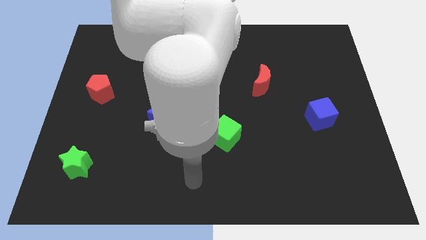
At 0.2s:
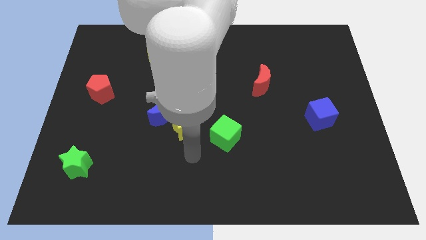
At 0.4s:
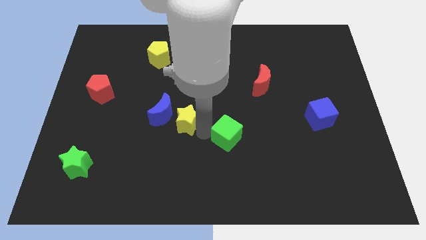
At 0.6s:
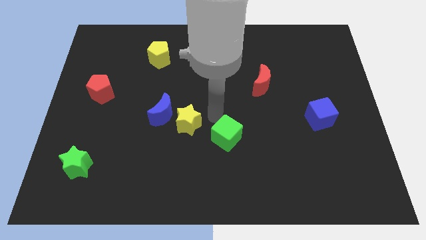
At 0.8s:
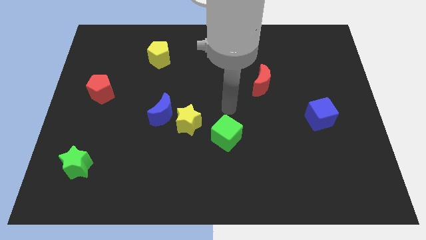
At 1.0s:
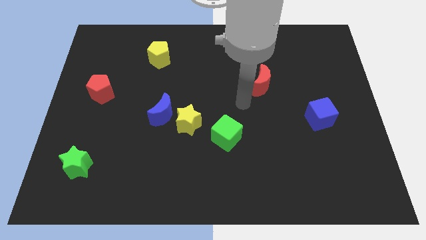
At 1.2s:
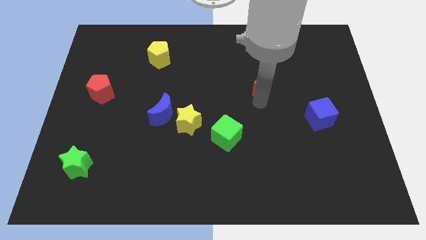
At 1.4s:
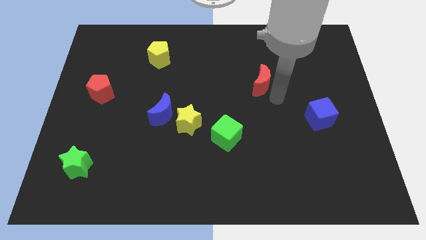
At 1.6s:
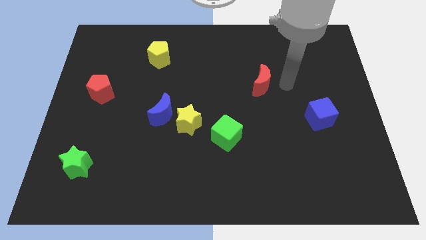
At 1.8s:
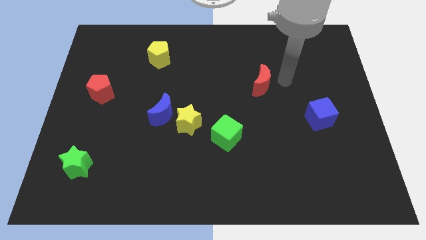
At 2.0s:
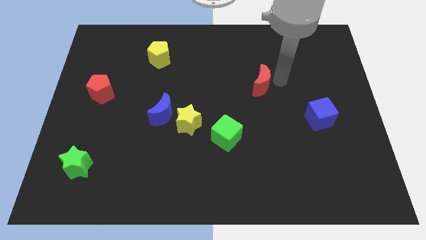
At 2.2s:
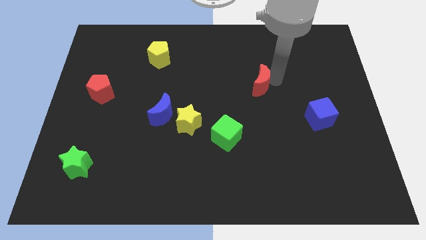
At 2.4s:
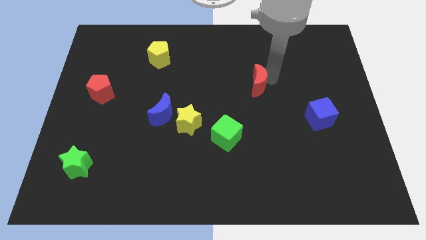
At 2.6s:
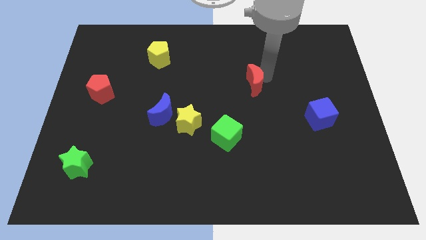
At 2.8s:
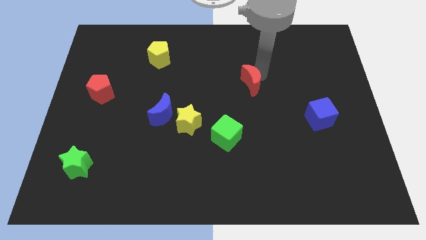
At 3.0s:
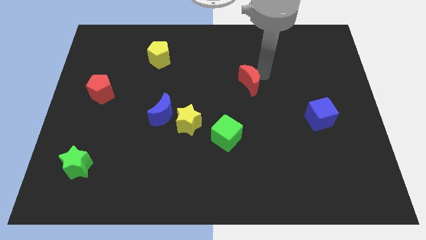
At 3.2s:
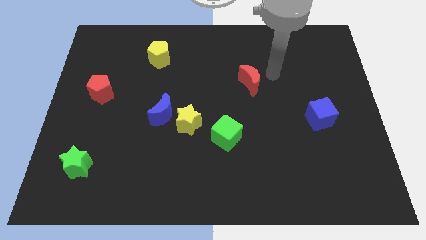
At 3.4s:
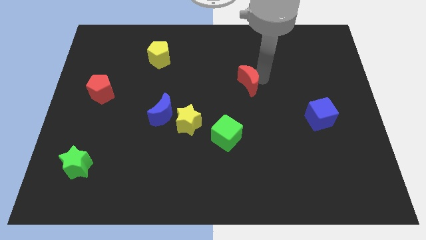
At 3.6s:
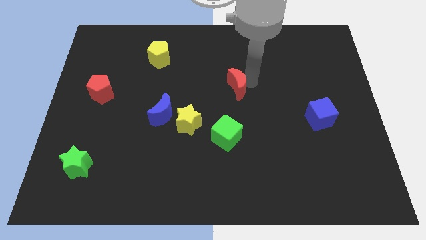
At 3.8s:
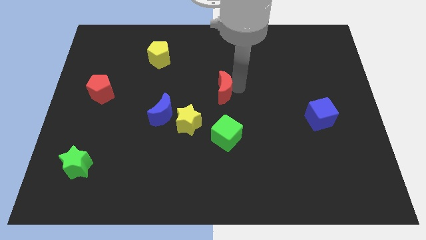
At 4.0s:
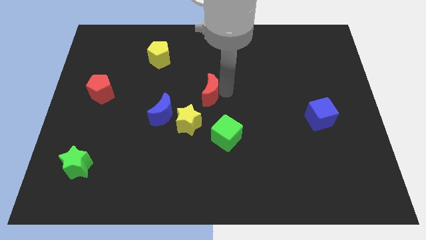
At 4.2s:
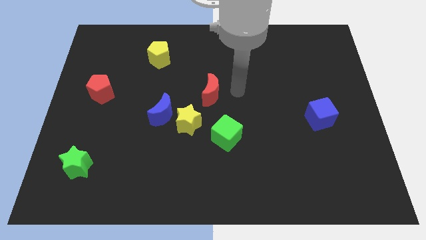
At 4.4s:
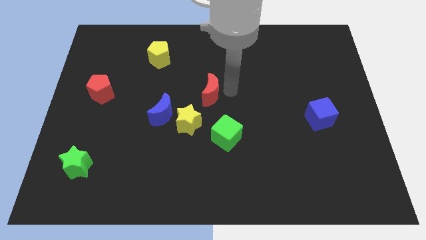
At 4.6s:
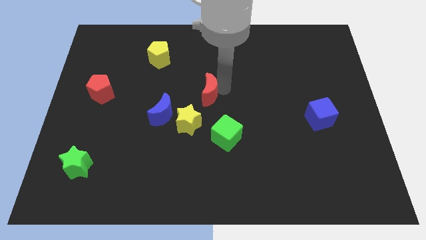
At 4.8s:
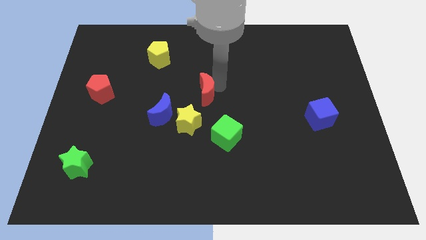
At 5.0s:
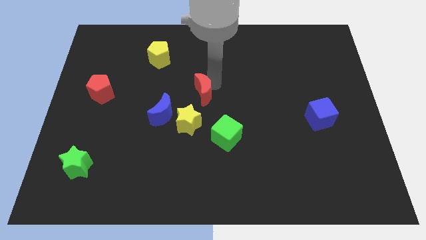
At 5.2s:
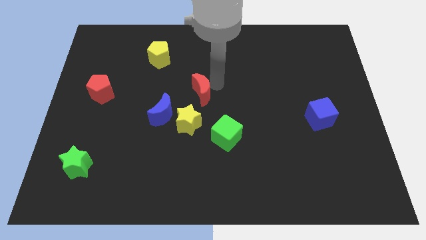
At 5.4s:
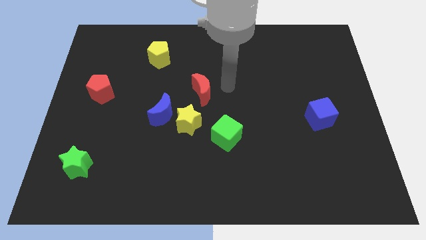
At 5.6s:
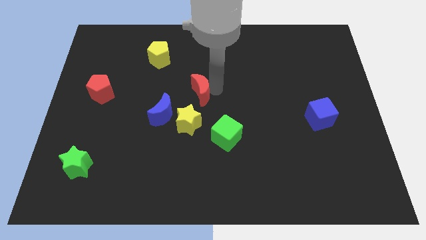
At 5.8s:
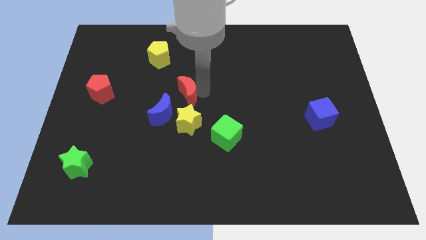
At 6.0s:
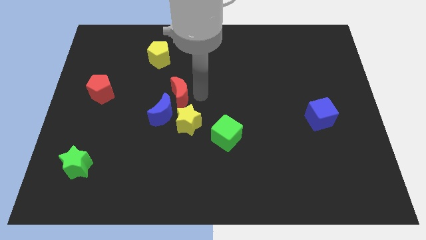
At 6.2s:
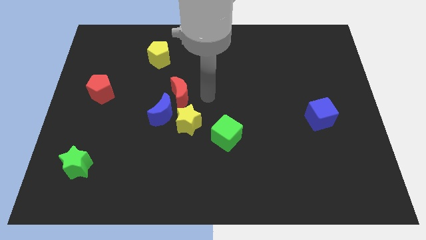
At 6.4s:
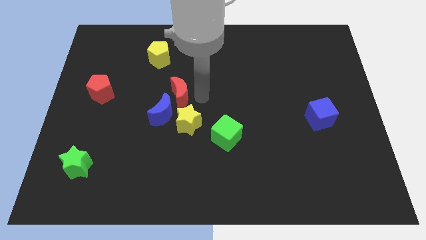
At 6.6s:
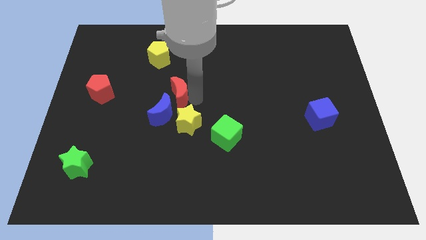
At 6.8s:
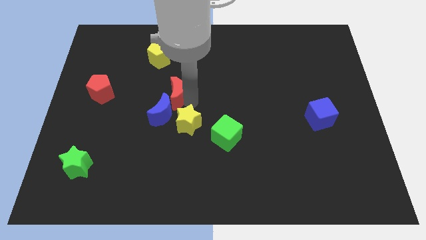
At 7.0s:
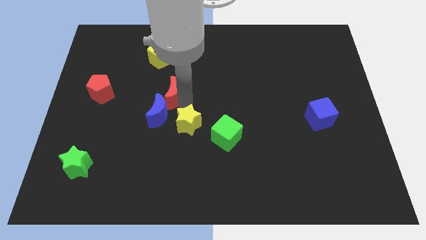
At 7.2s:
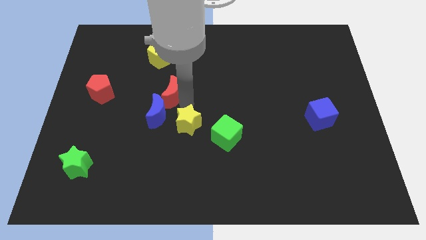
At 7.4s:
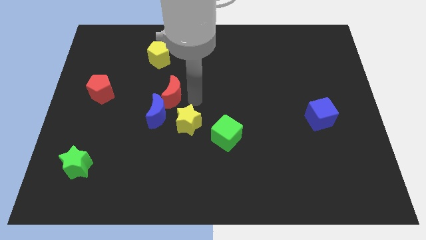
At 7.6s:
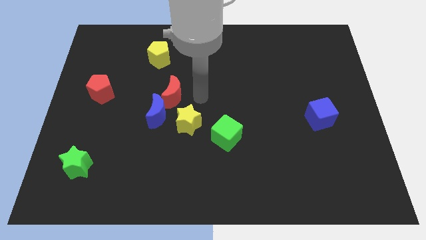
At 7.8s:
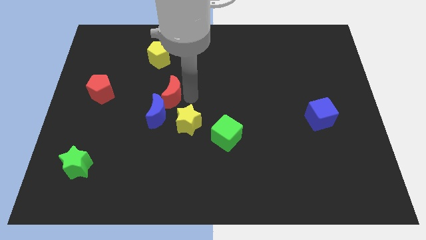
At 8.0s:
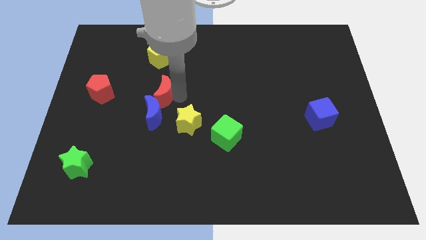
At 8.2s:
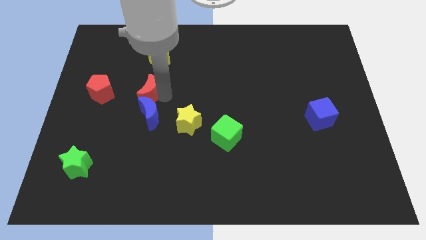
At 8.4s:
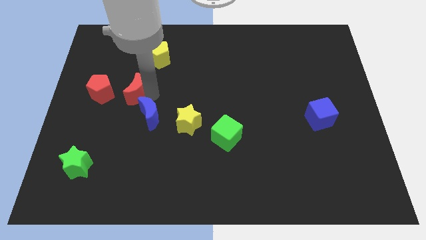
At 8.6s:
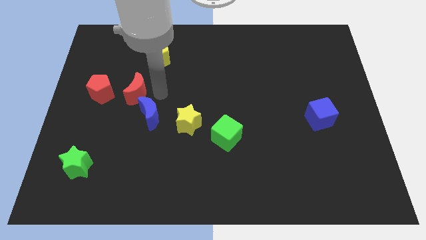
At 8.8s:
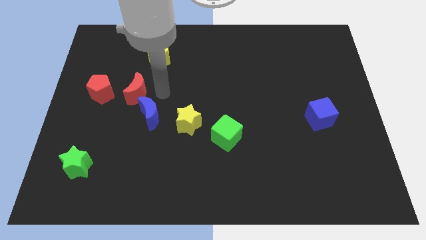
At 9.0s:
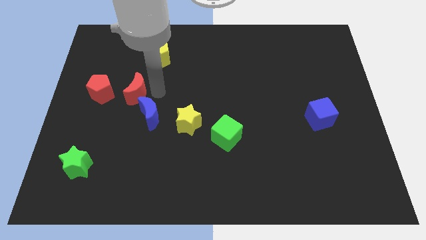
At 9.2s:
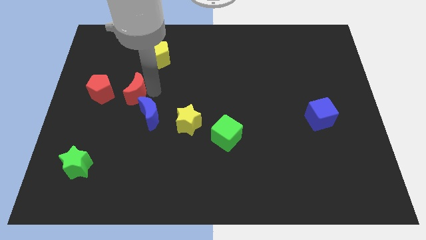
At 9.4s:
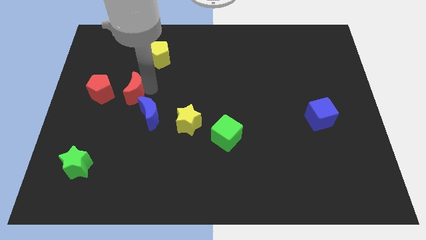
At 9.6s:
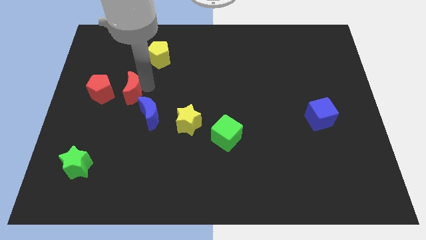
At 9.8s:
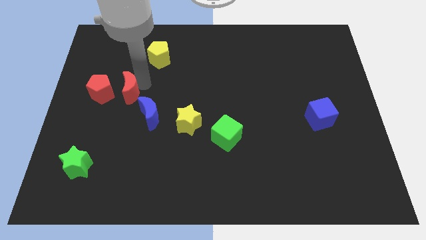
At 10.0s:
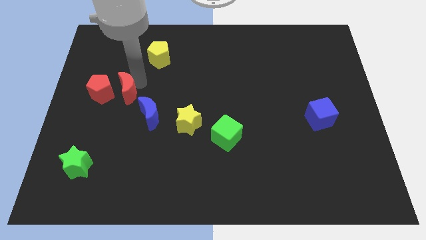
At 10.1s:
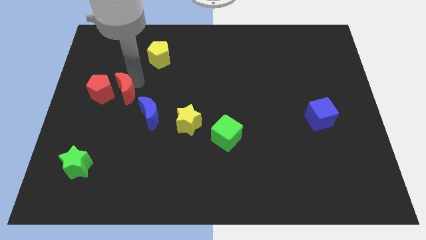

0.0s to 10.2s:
slide the red moon towards the red pentagon

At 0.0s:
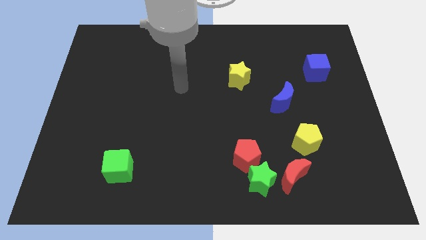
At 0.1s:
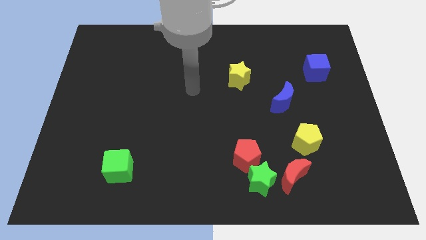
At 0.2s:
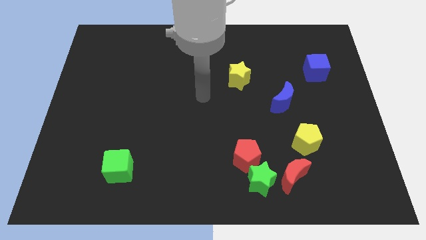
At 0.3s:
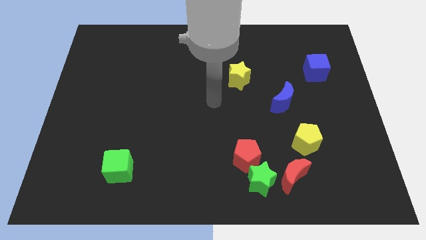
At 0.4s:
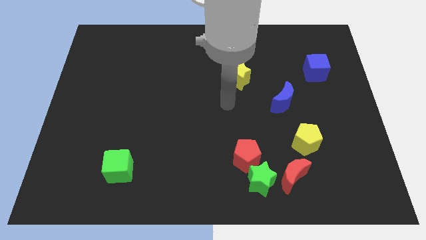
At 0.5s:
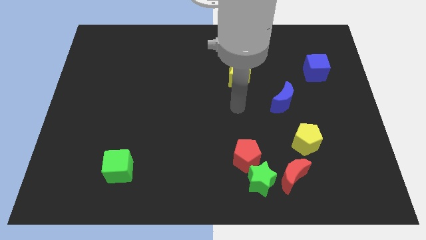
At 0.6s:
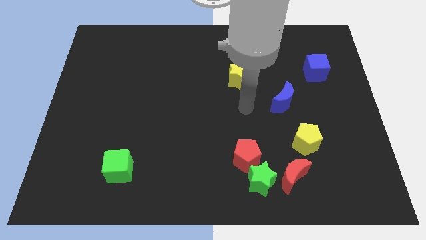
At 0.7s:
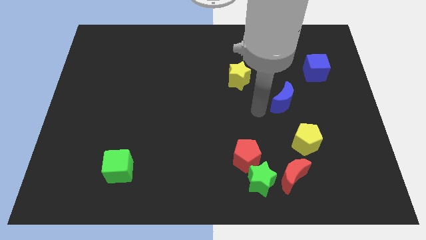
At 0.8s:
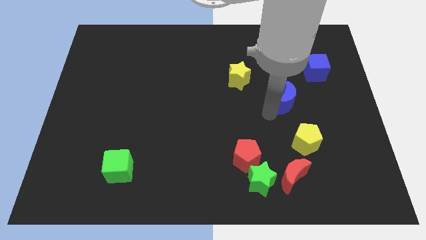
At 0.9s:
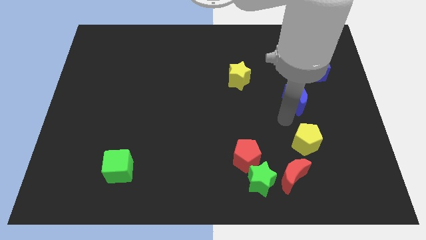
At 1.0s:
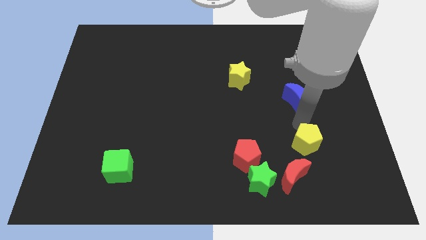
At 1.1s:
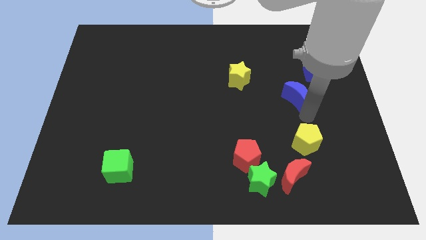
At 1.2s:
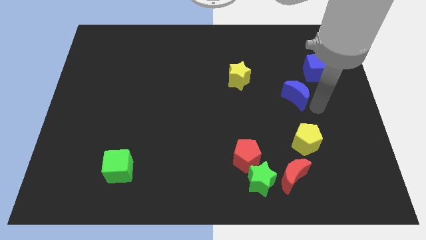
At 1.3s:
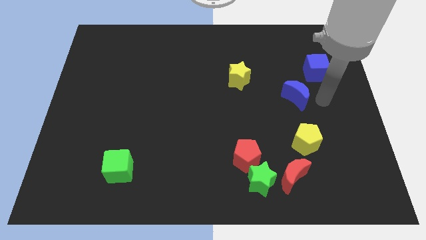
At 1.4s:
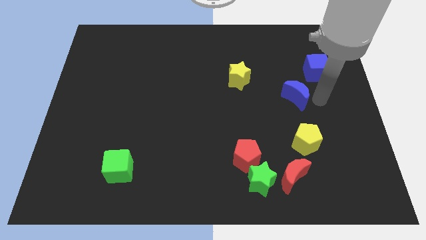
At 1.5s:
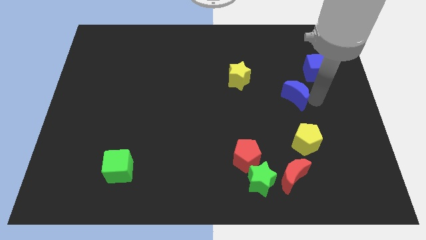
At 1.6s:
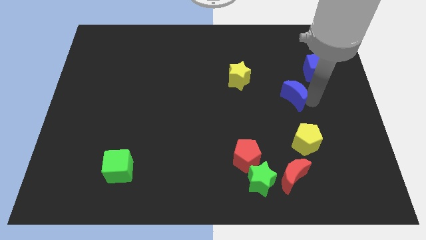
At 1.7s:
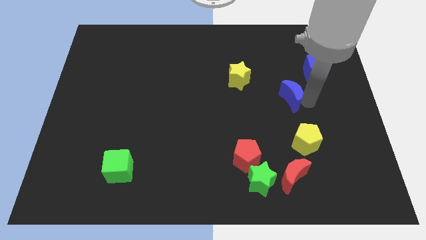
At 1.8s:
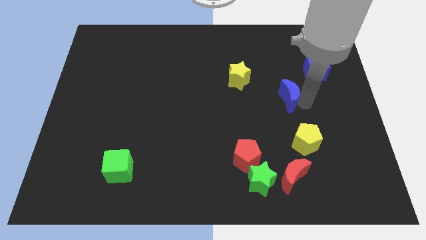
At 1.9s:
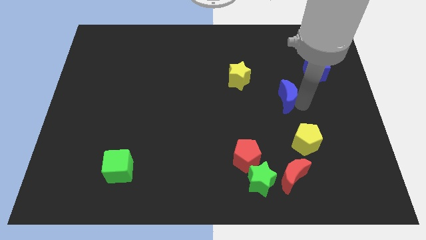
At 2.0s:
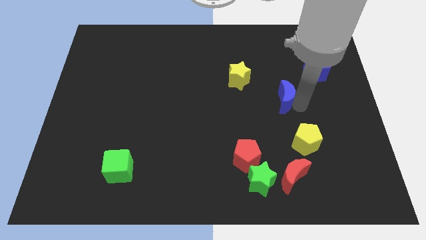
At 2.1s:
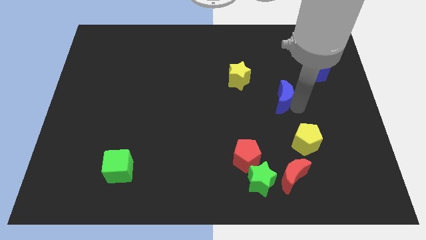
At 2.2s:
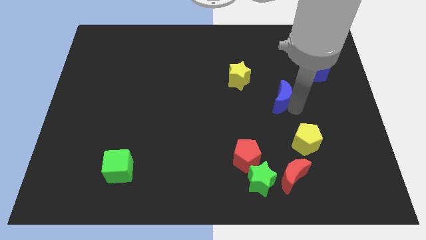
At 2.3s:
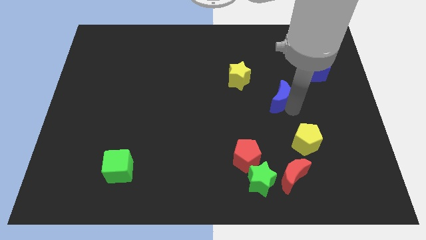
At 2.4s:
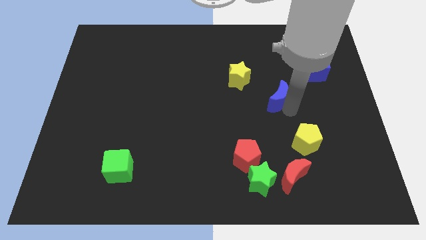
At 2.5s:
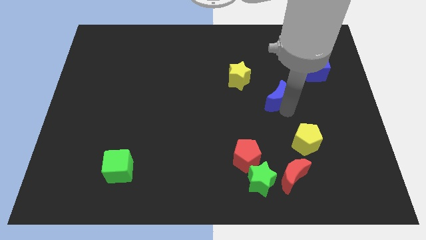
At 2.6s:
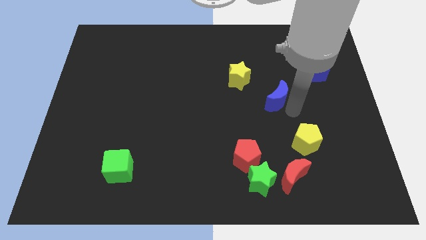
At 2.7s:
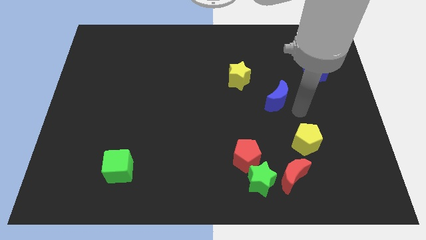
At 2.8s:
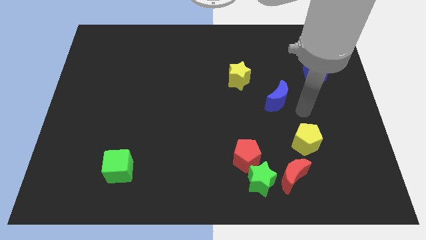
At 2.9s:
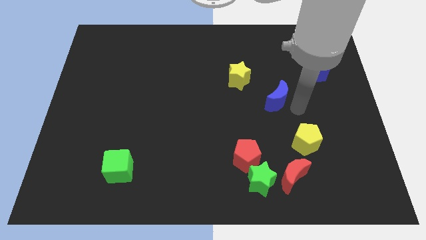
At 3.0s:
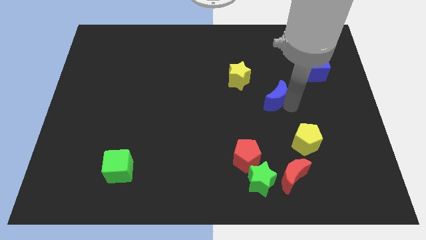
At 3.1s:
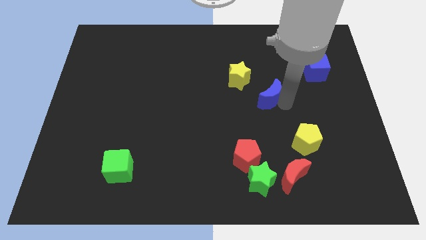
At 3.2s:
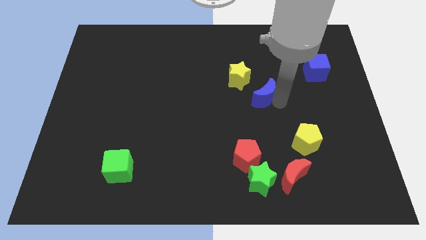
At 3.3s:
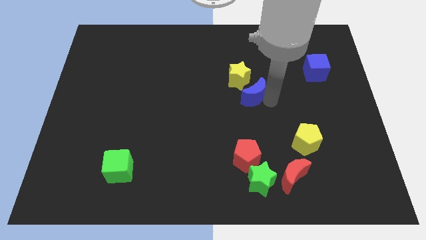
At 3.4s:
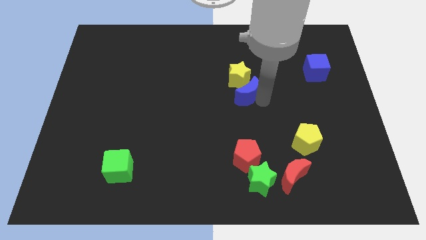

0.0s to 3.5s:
slide the blue moon next to the yellow star
